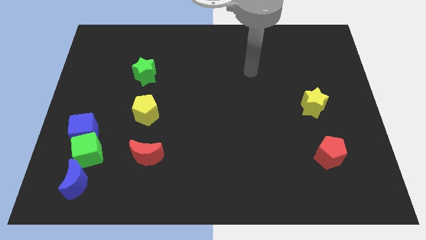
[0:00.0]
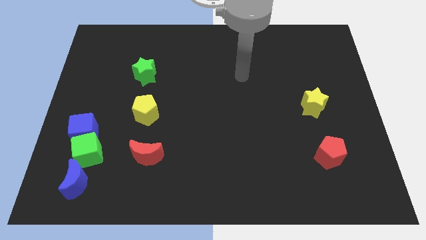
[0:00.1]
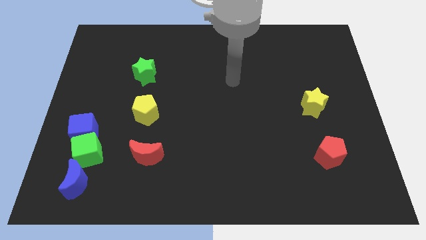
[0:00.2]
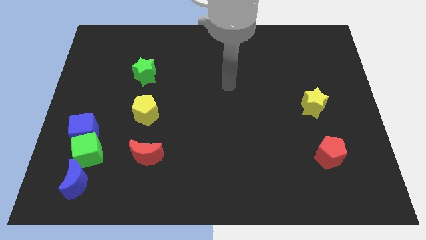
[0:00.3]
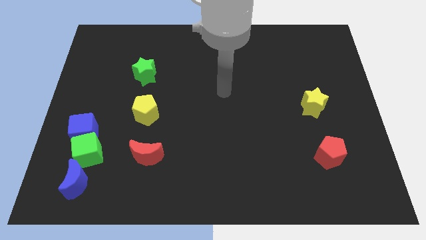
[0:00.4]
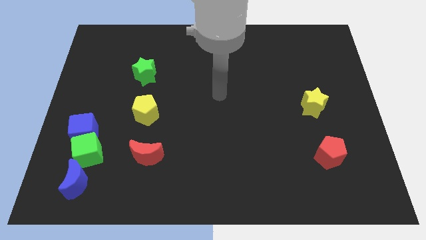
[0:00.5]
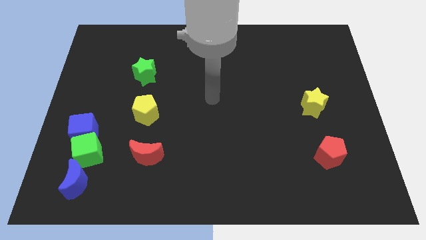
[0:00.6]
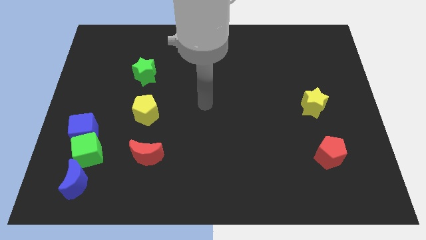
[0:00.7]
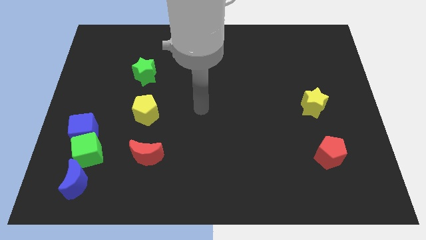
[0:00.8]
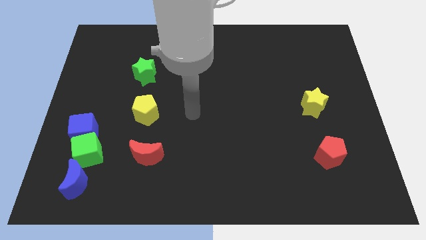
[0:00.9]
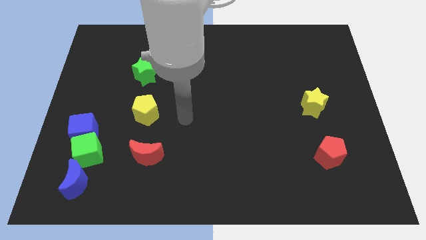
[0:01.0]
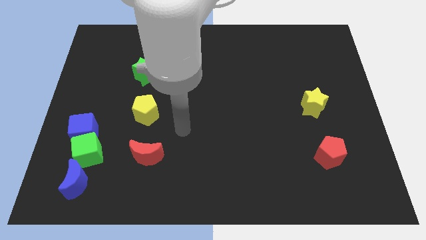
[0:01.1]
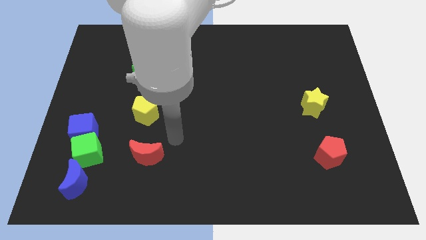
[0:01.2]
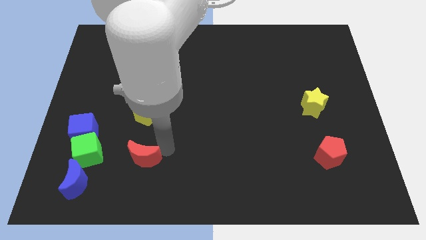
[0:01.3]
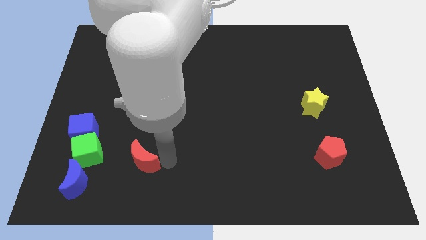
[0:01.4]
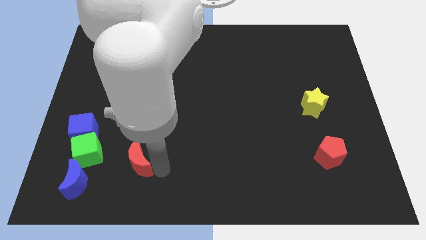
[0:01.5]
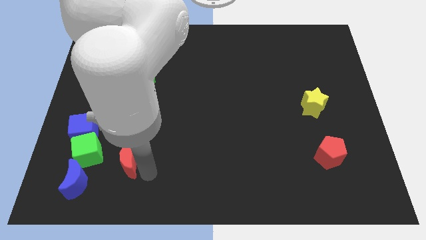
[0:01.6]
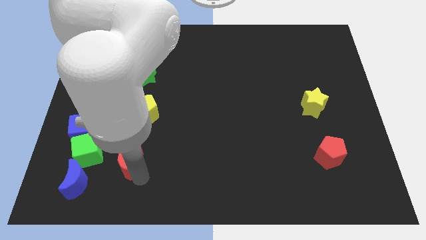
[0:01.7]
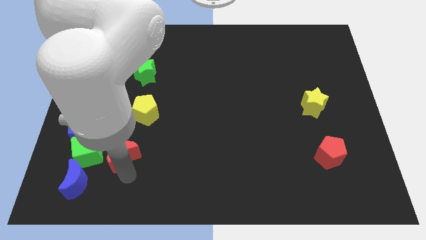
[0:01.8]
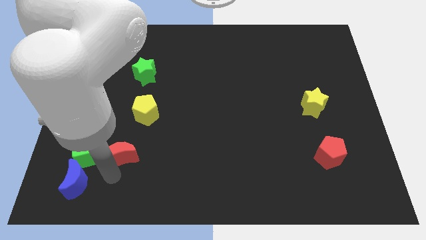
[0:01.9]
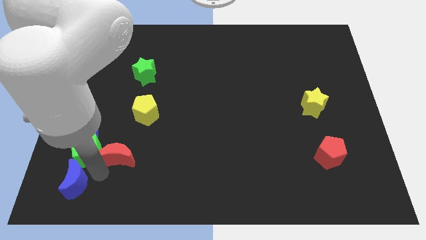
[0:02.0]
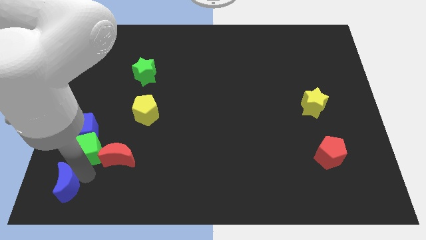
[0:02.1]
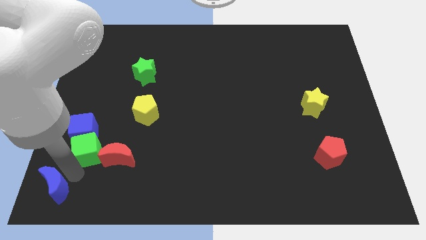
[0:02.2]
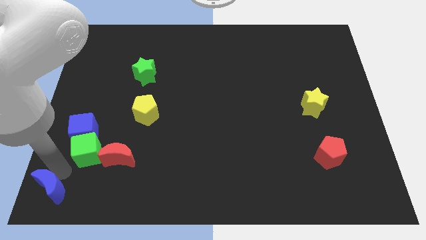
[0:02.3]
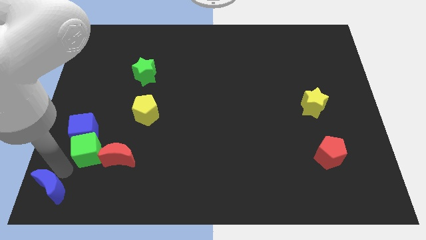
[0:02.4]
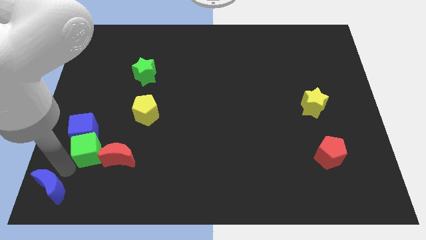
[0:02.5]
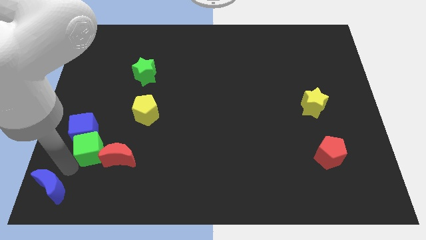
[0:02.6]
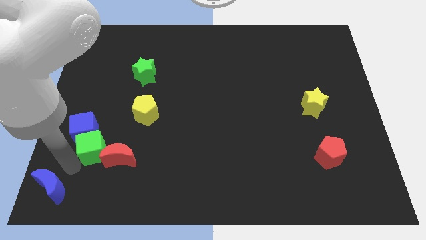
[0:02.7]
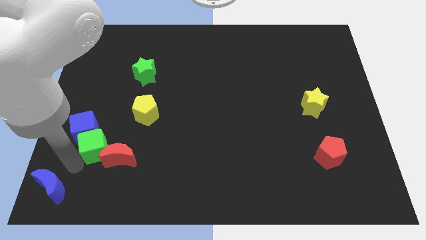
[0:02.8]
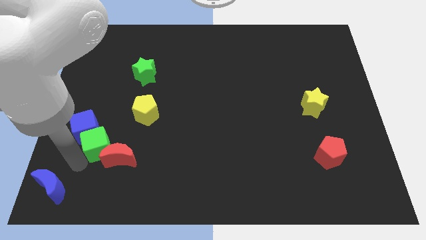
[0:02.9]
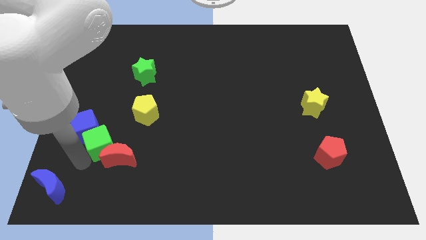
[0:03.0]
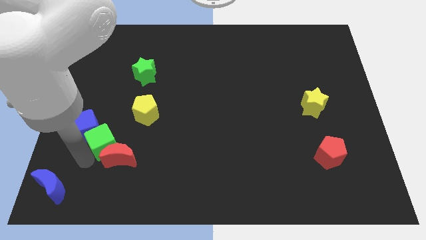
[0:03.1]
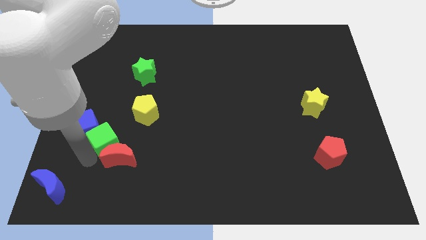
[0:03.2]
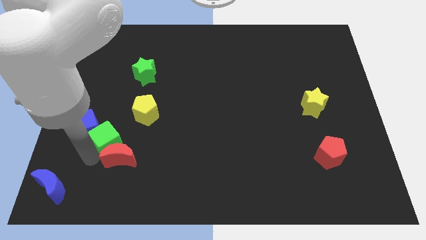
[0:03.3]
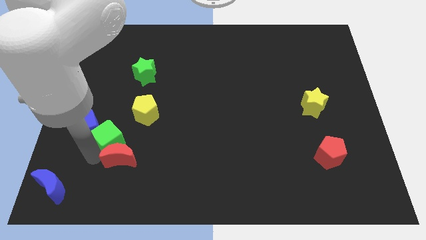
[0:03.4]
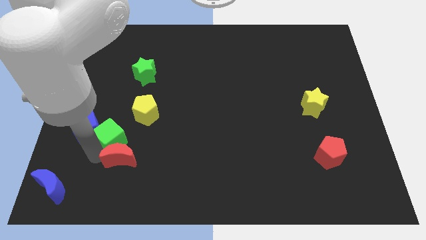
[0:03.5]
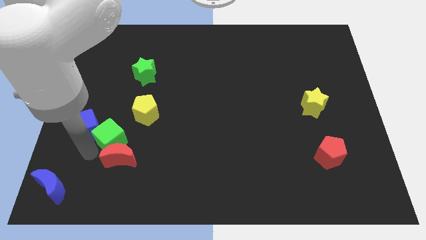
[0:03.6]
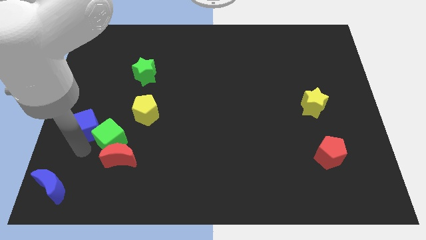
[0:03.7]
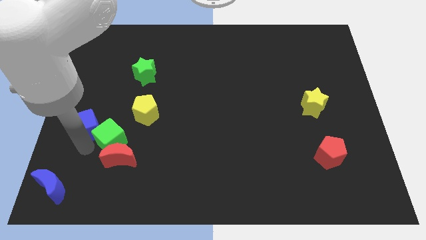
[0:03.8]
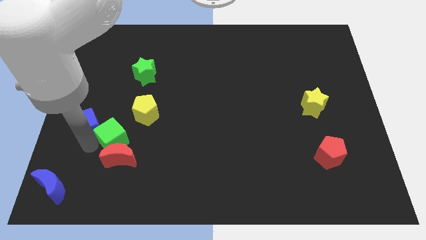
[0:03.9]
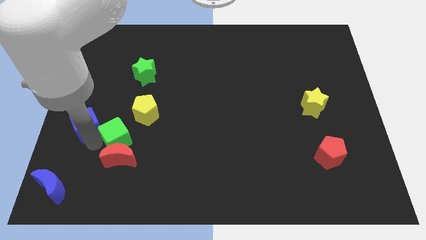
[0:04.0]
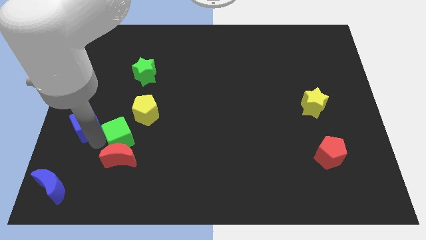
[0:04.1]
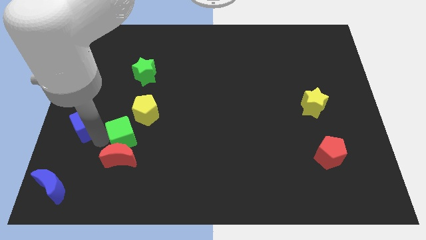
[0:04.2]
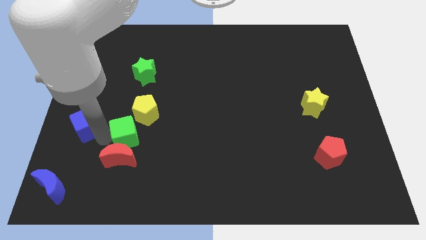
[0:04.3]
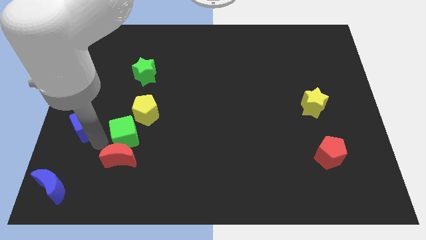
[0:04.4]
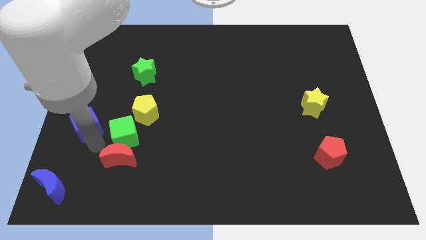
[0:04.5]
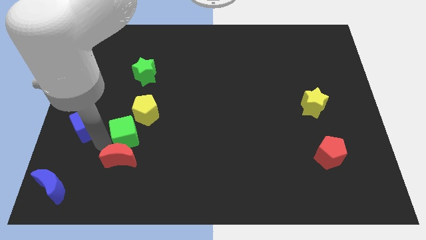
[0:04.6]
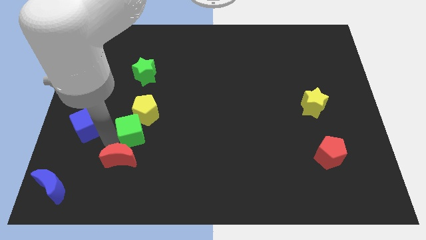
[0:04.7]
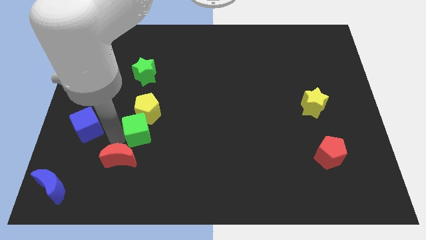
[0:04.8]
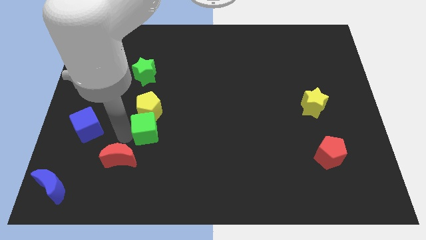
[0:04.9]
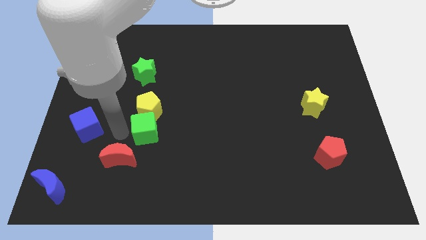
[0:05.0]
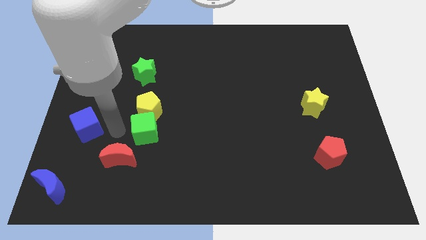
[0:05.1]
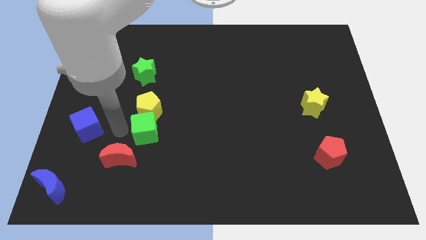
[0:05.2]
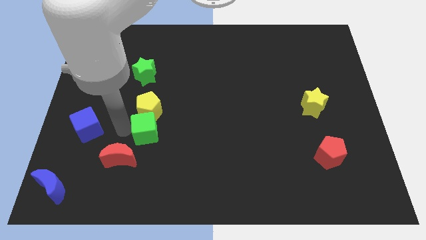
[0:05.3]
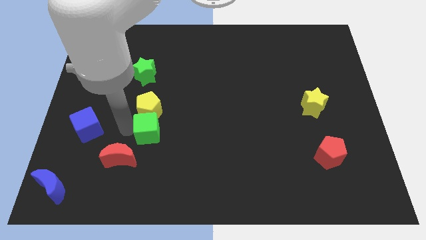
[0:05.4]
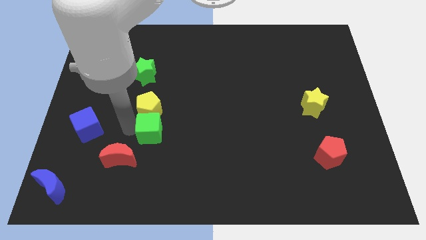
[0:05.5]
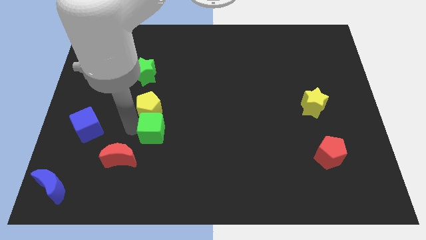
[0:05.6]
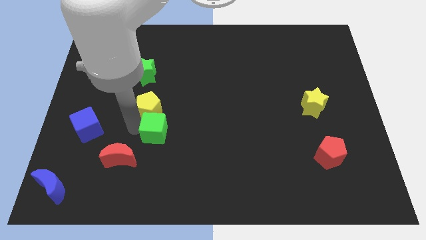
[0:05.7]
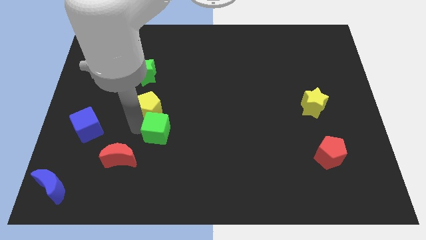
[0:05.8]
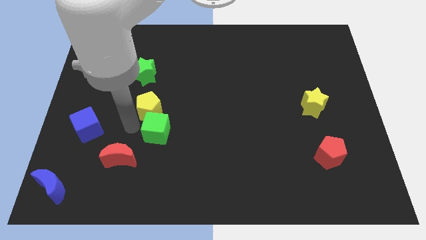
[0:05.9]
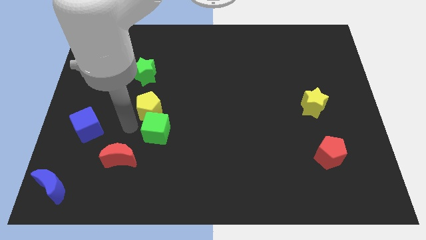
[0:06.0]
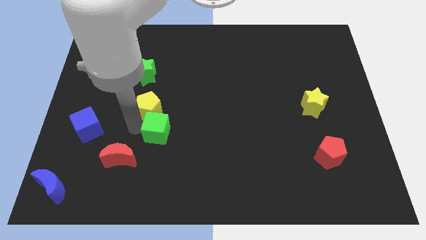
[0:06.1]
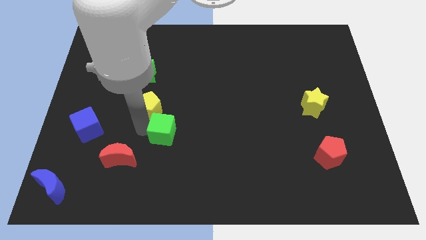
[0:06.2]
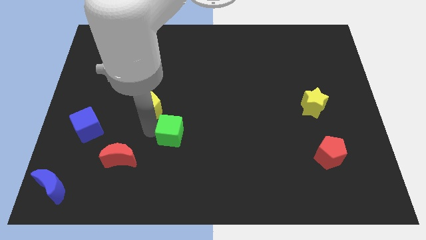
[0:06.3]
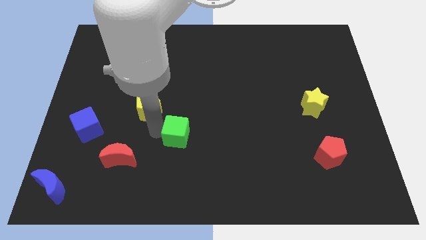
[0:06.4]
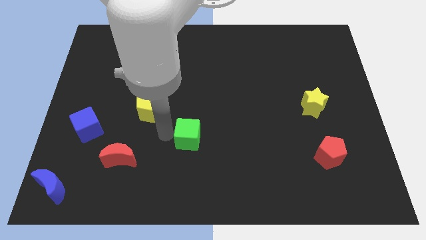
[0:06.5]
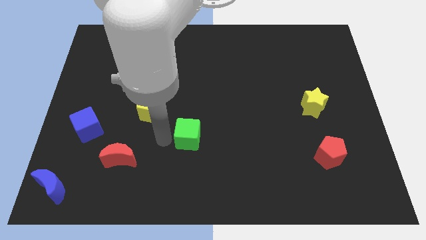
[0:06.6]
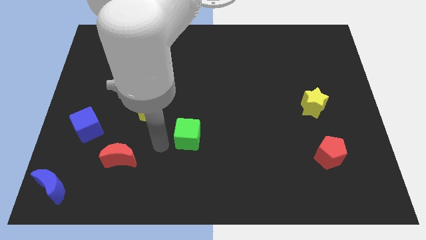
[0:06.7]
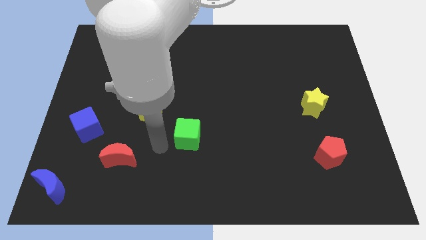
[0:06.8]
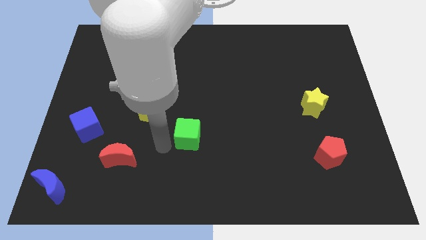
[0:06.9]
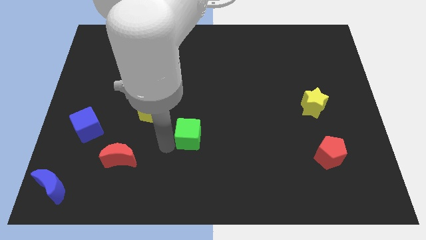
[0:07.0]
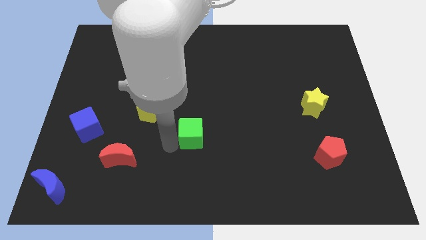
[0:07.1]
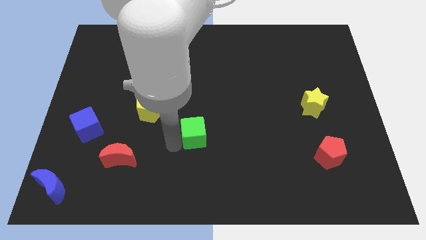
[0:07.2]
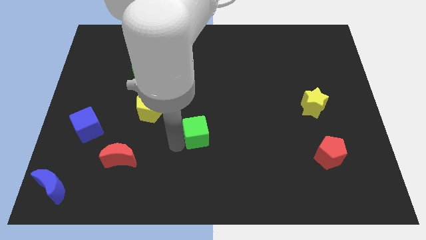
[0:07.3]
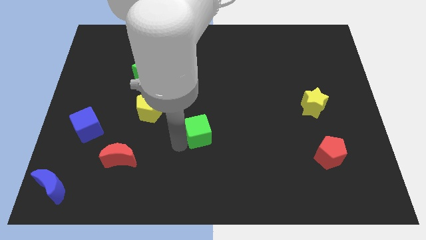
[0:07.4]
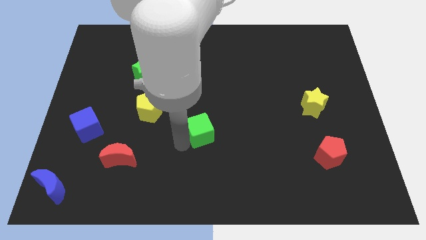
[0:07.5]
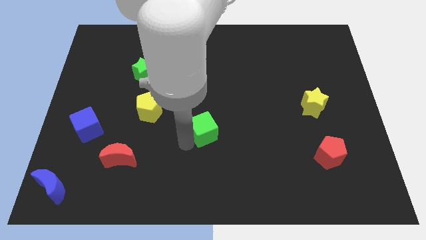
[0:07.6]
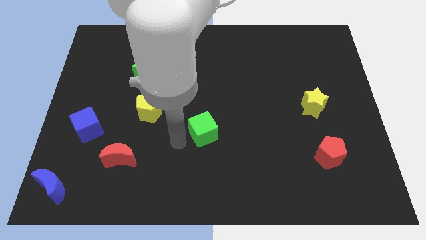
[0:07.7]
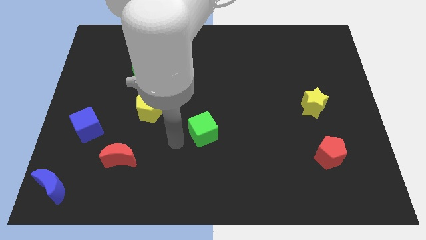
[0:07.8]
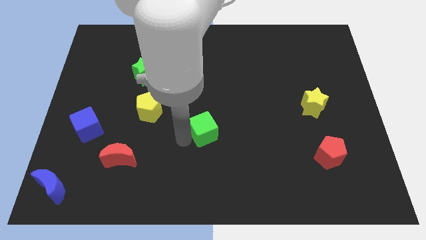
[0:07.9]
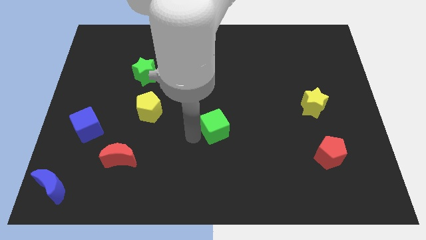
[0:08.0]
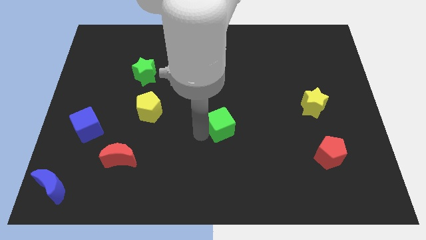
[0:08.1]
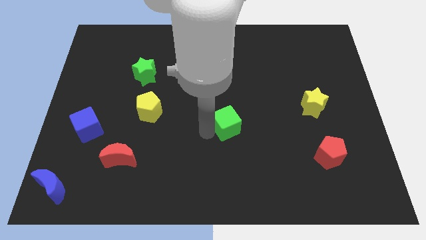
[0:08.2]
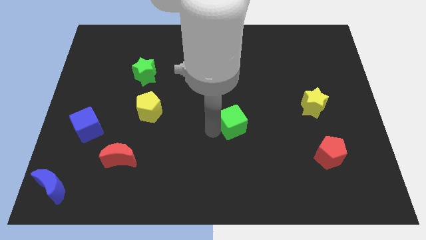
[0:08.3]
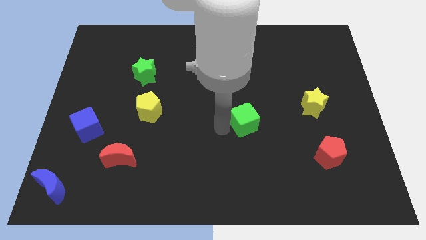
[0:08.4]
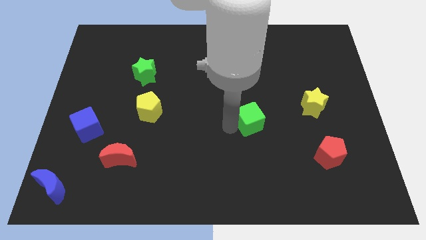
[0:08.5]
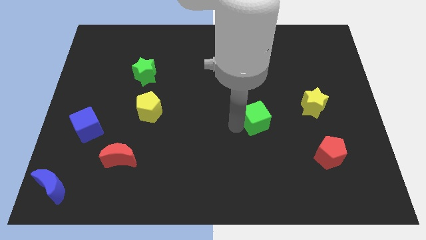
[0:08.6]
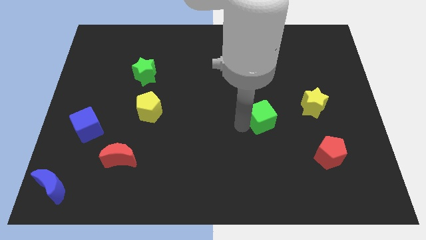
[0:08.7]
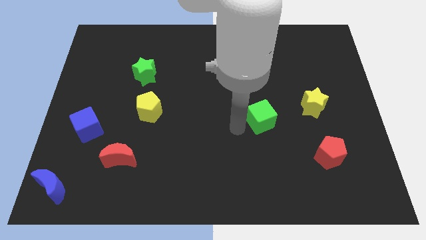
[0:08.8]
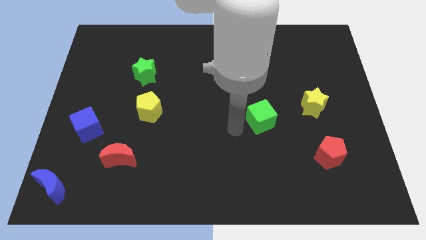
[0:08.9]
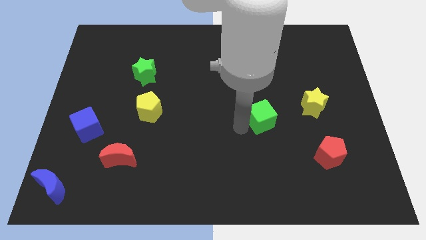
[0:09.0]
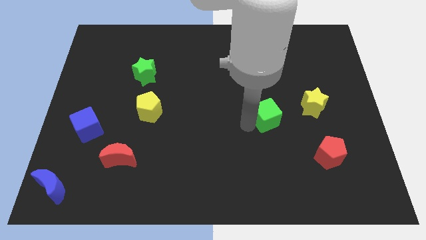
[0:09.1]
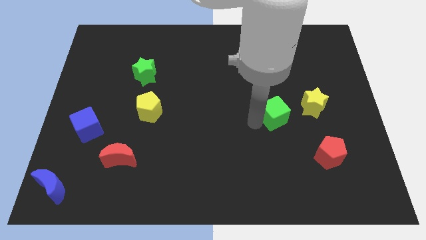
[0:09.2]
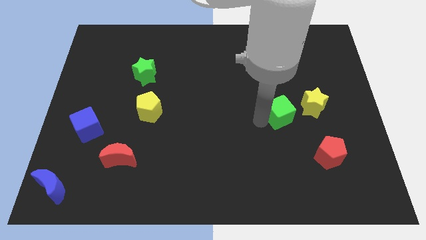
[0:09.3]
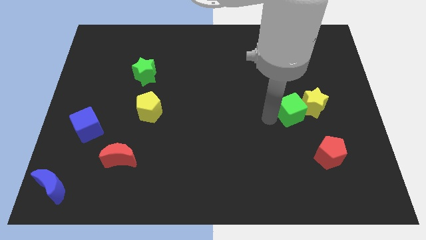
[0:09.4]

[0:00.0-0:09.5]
put the green cube close to the yellow star
